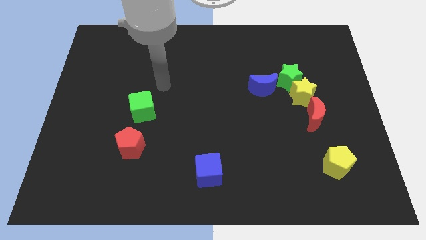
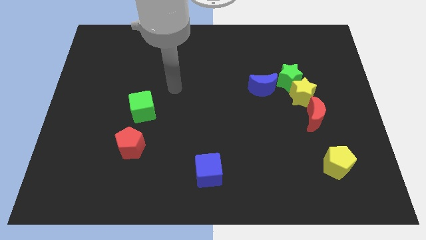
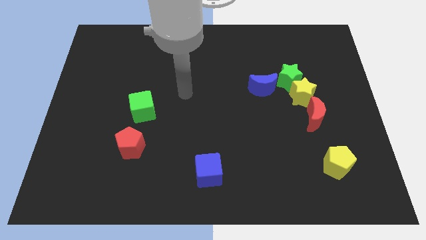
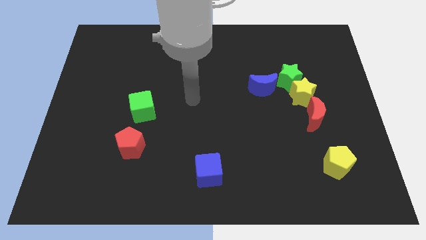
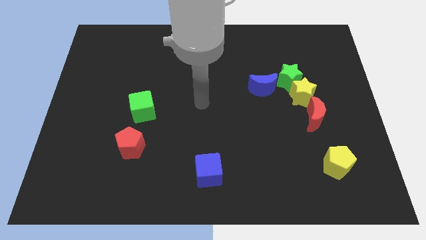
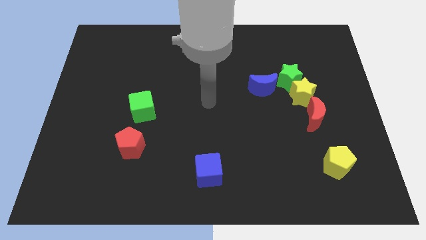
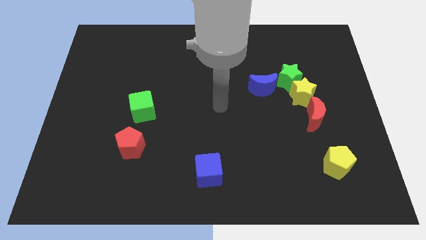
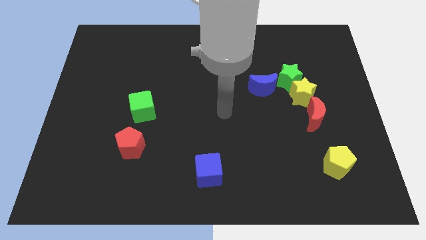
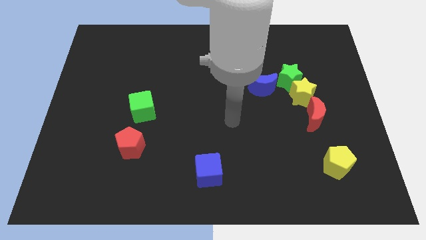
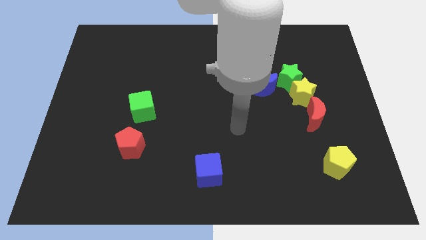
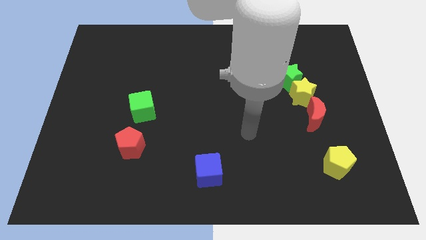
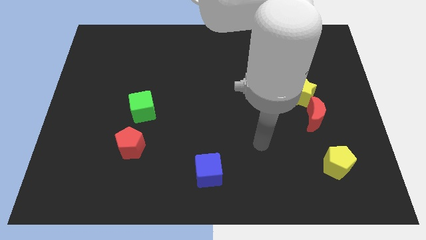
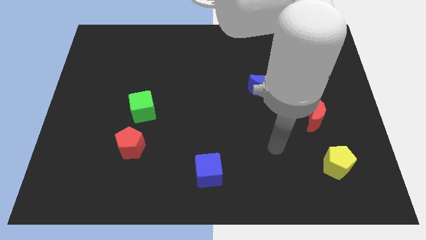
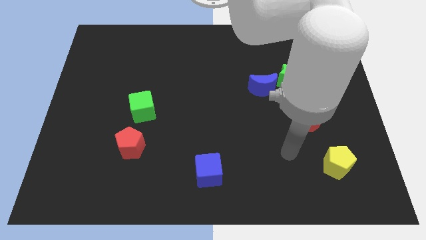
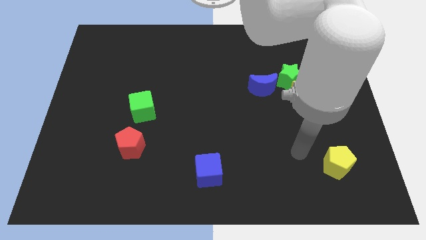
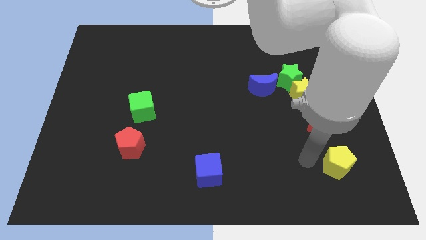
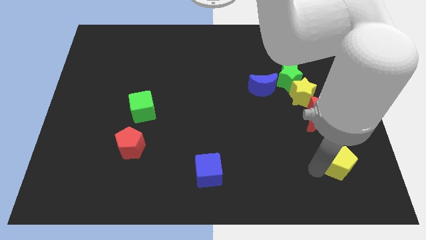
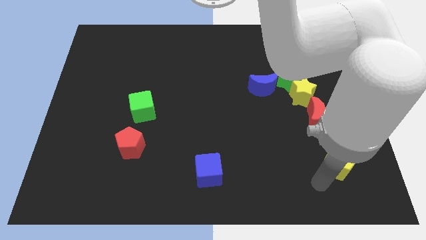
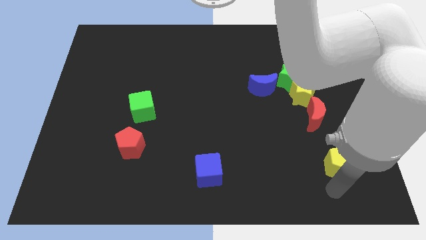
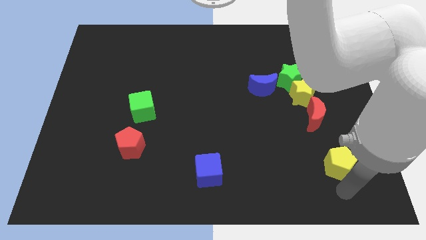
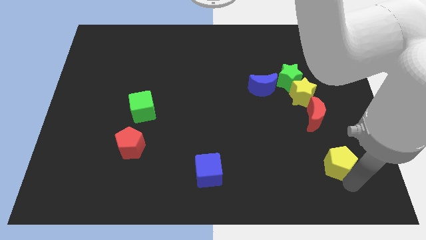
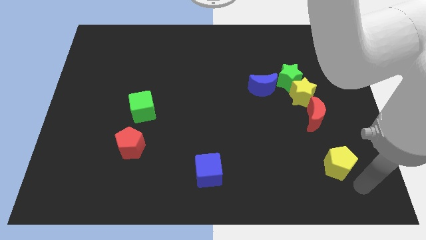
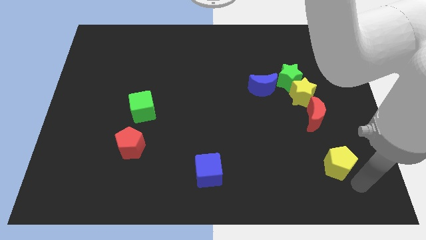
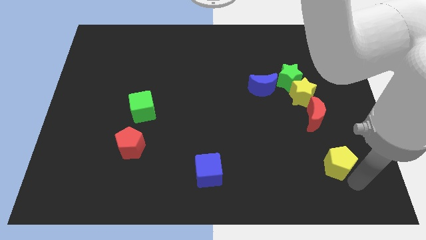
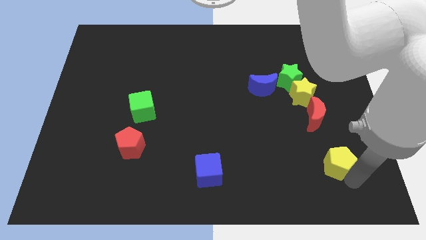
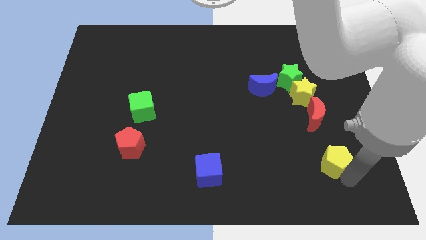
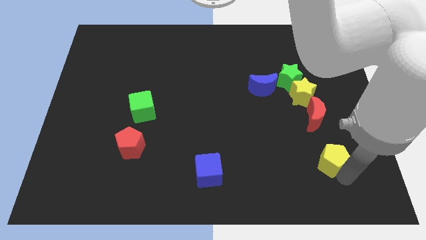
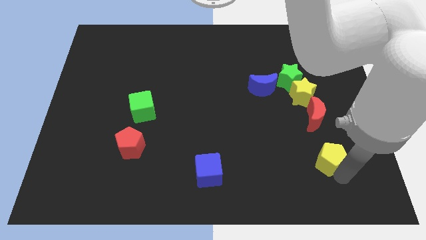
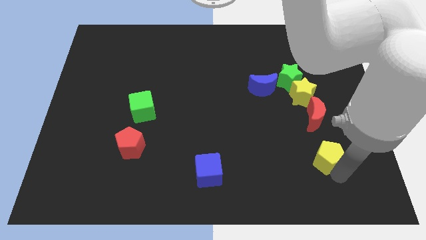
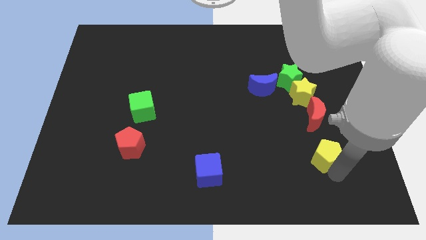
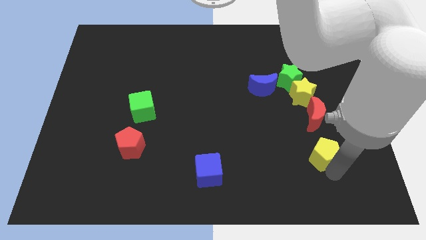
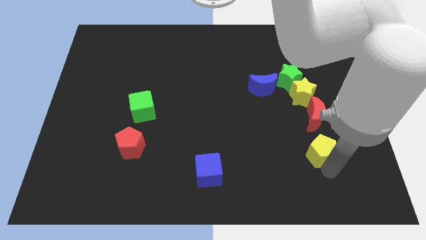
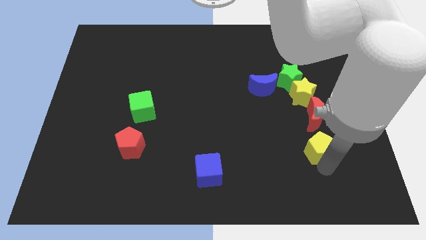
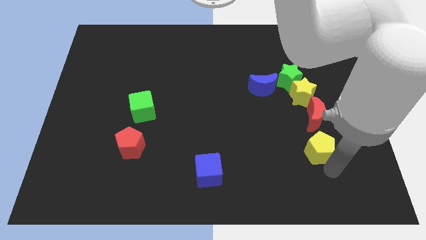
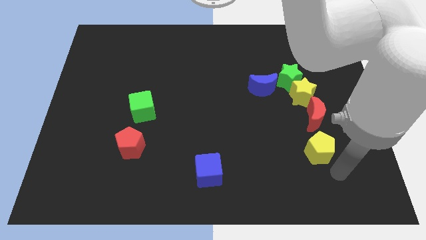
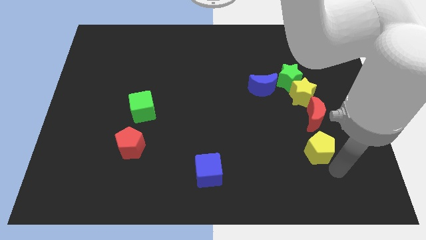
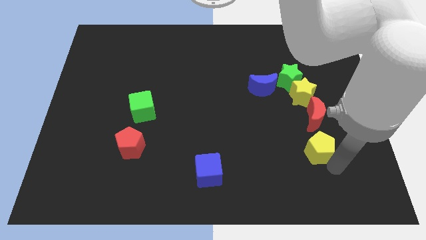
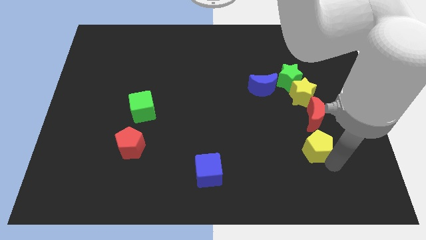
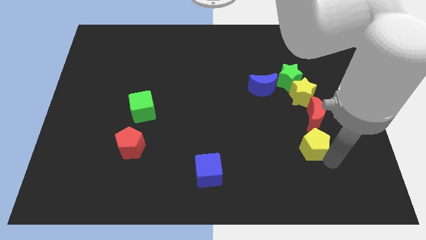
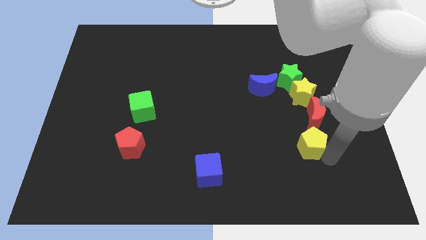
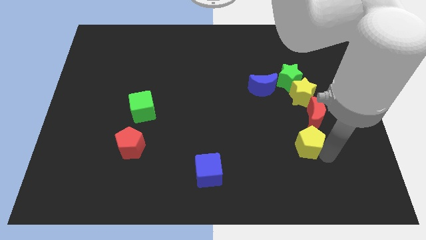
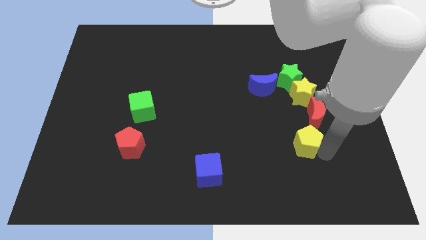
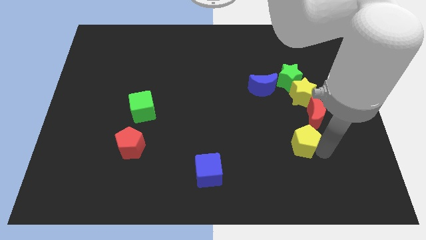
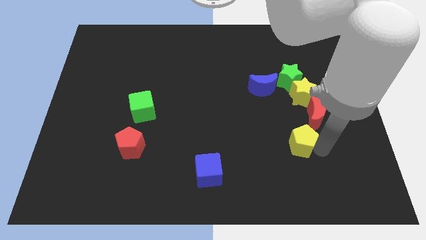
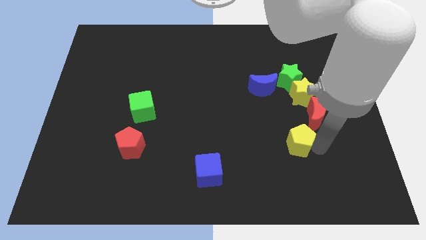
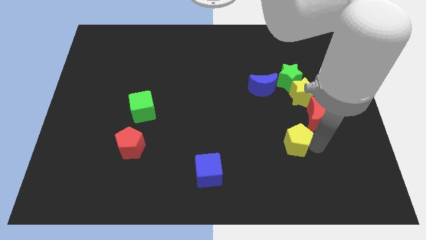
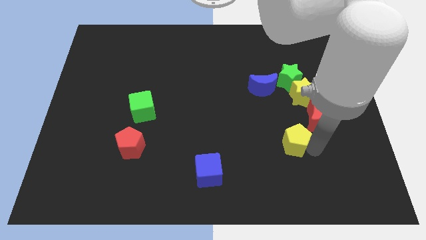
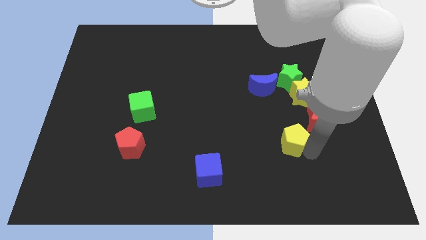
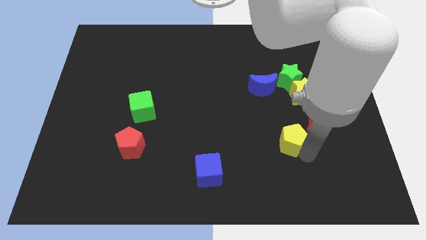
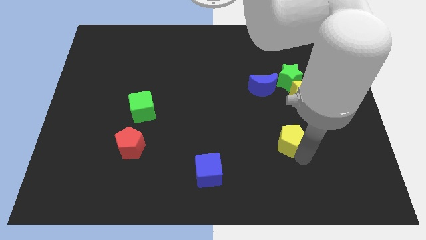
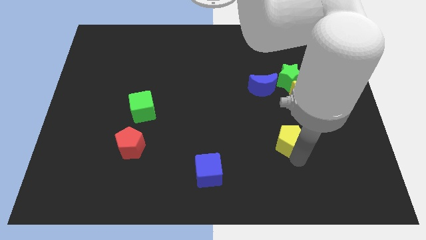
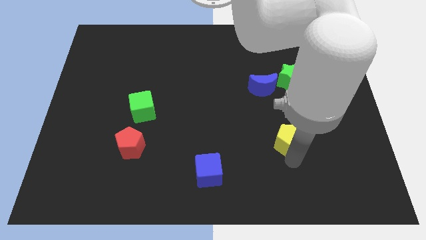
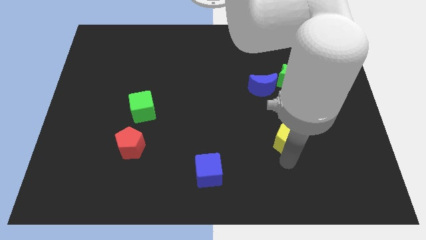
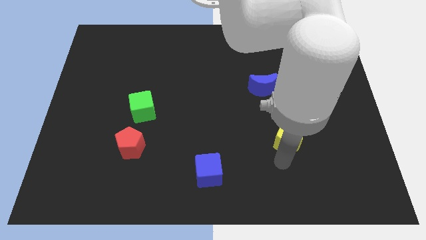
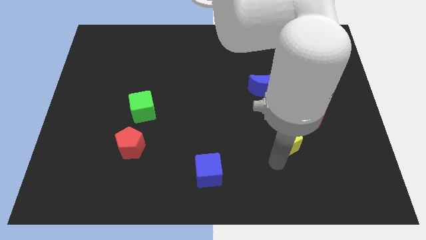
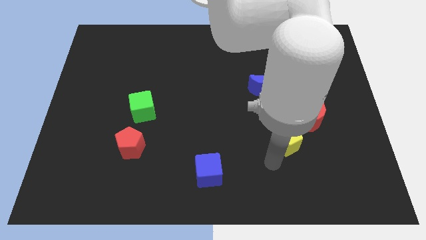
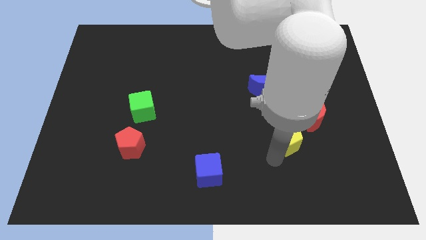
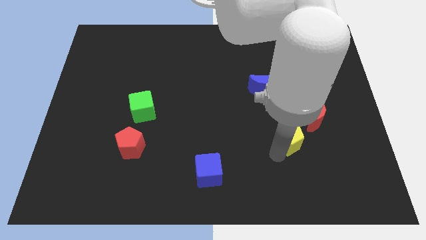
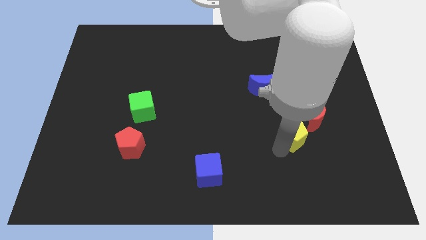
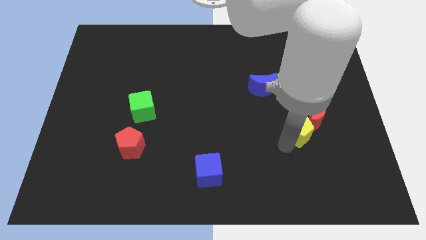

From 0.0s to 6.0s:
move the yellow pentagon to the bottom side of the green star

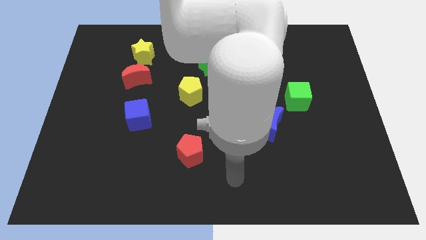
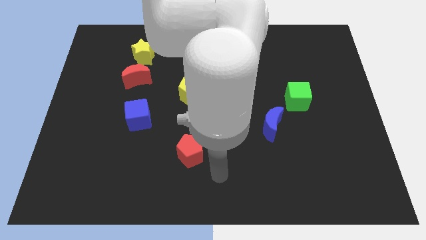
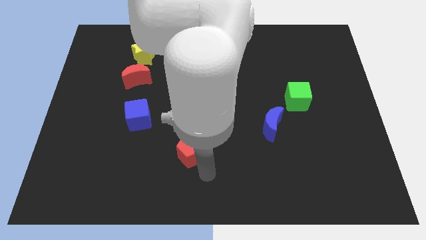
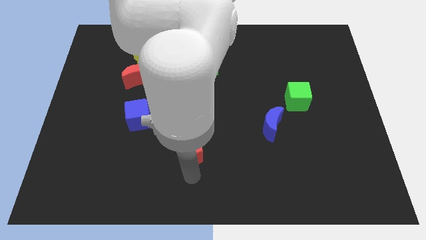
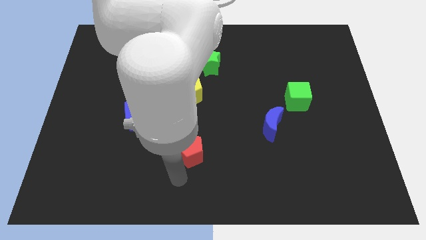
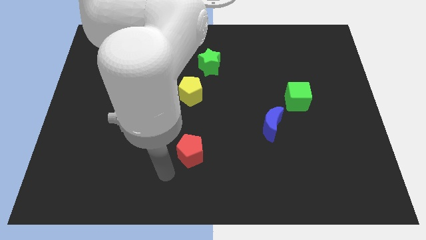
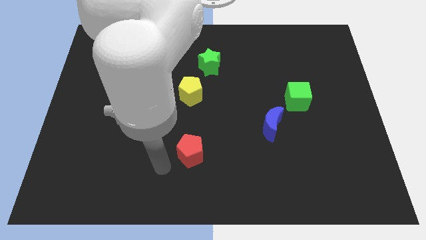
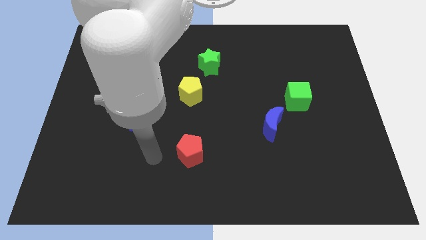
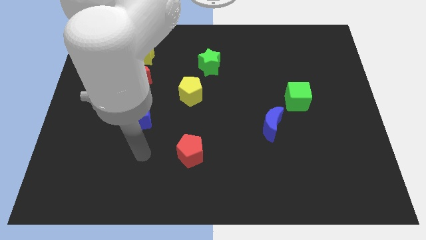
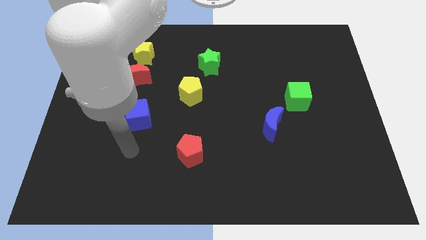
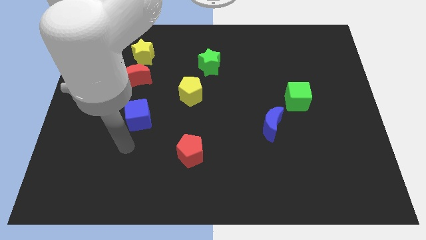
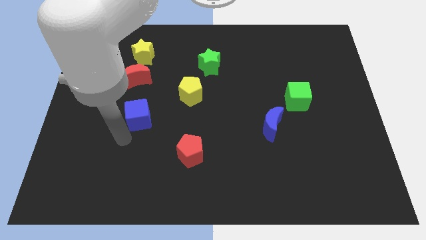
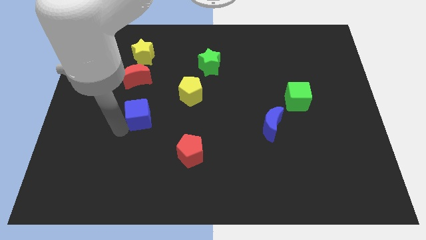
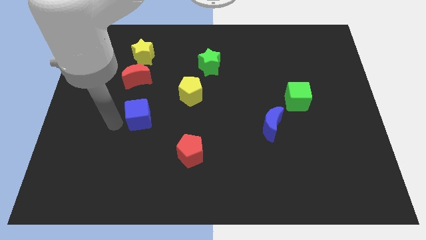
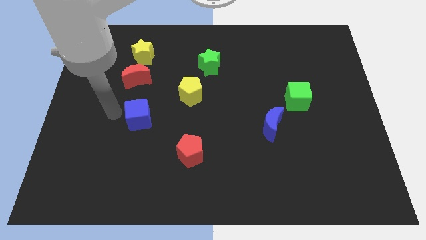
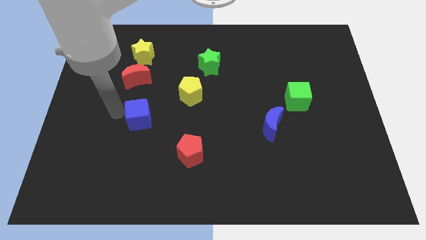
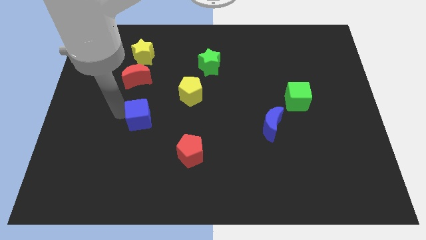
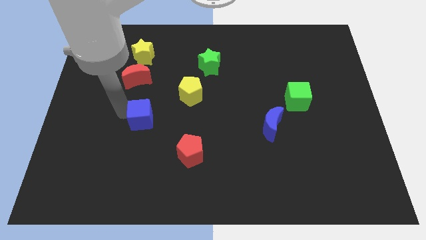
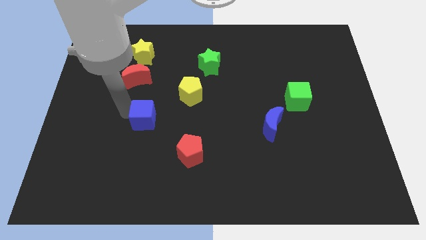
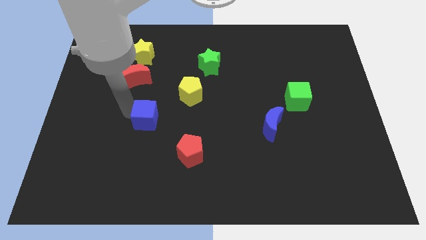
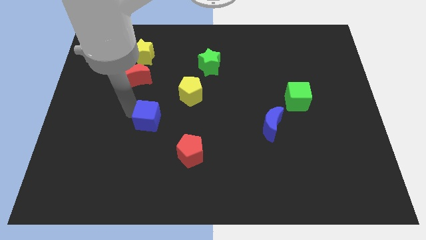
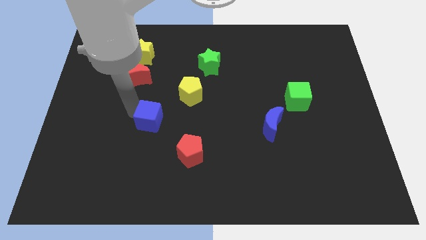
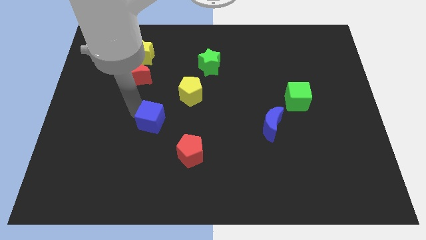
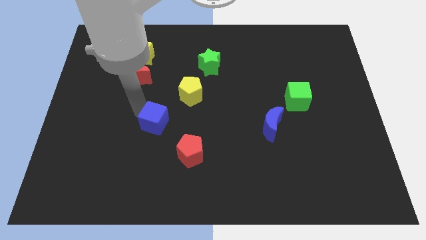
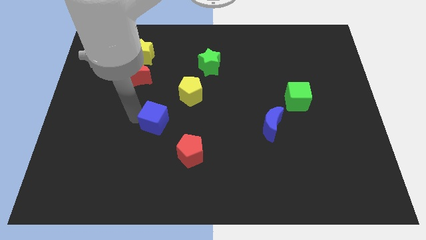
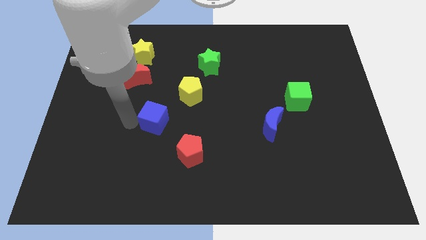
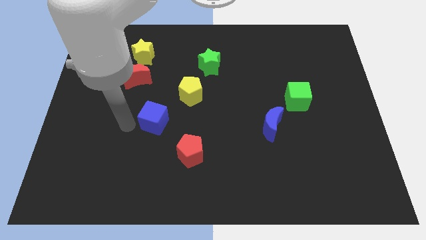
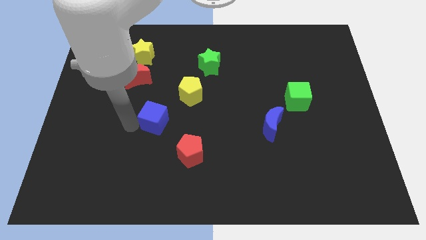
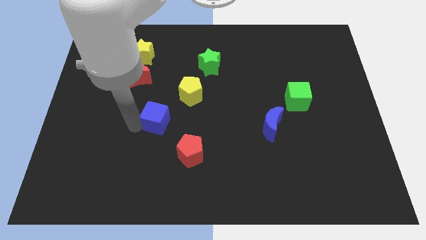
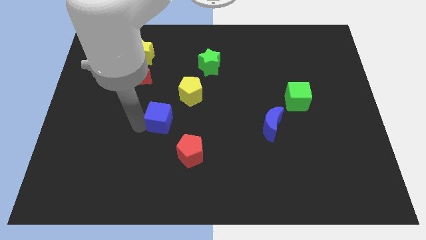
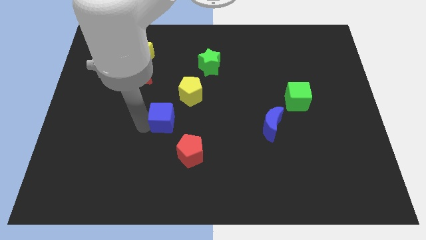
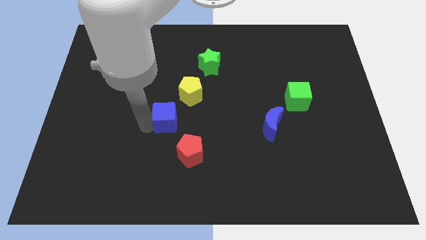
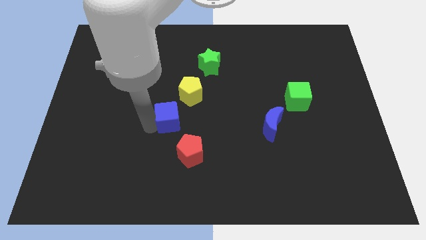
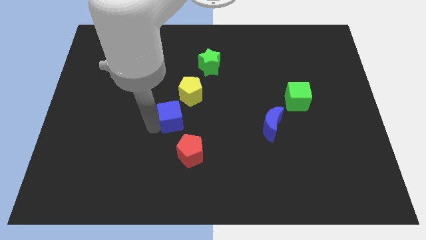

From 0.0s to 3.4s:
push the blue cube to the top of the red pentagon
